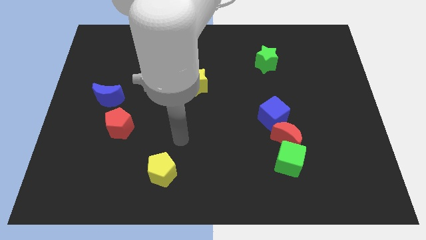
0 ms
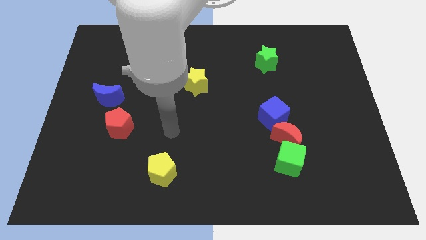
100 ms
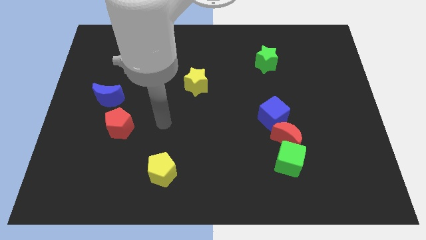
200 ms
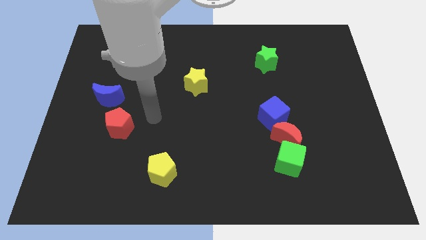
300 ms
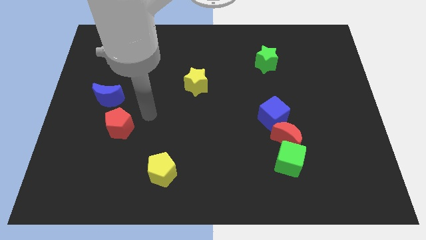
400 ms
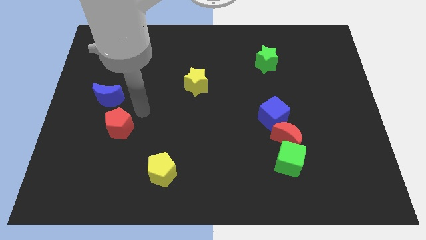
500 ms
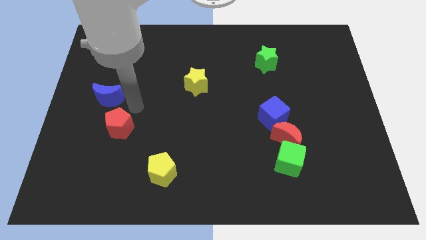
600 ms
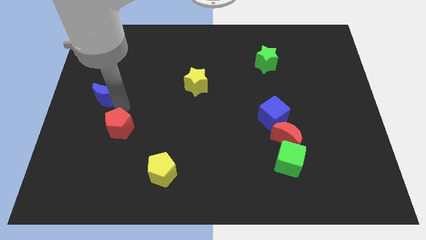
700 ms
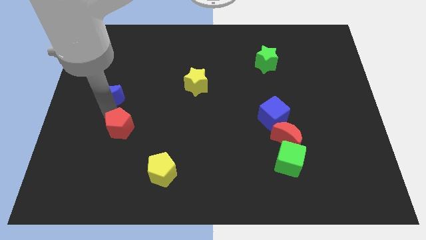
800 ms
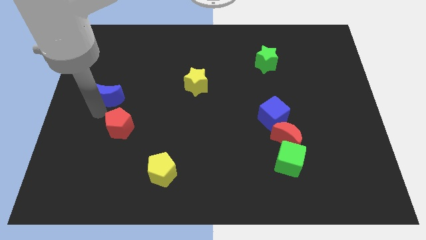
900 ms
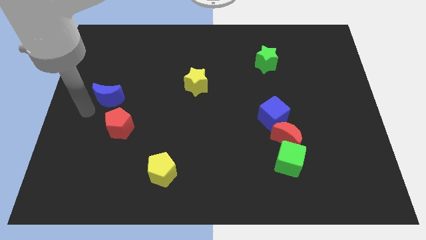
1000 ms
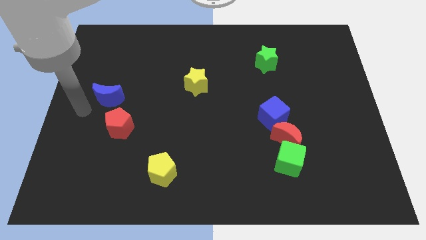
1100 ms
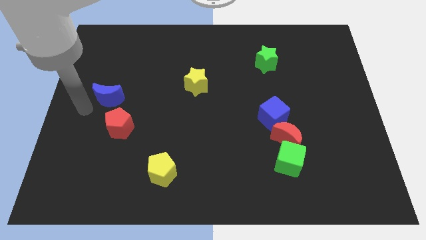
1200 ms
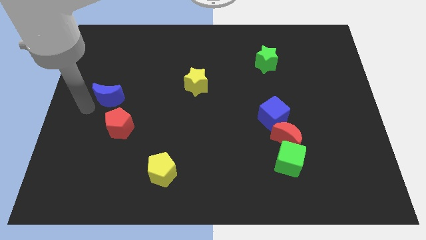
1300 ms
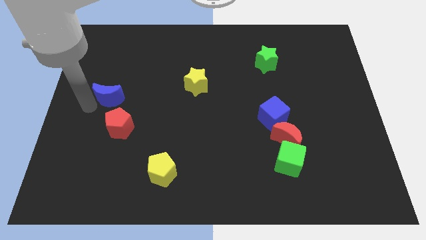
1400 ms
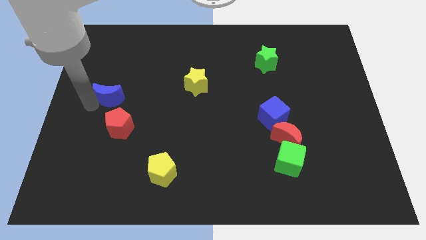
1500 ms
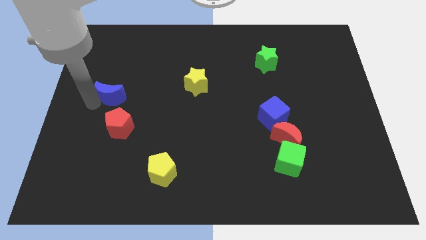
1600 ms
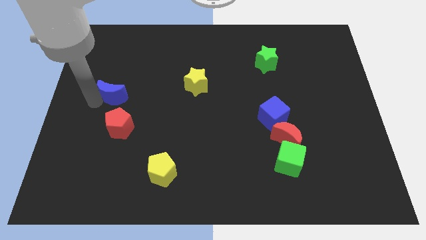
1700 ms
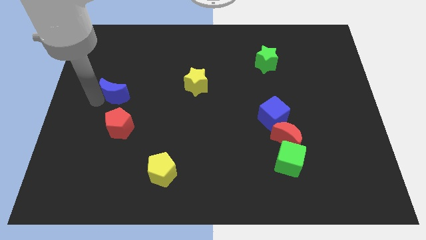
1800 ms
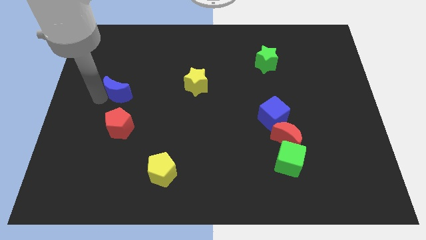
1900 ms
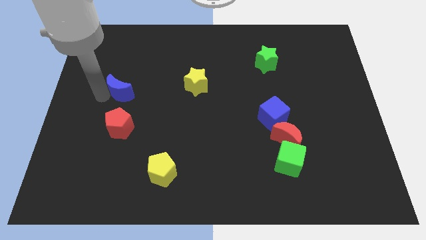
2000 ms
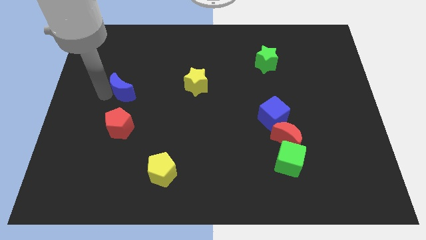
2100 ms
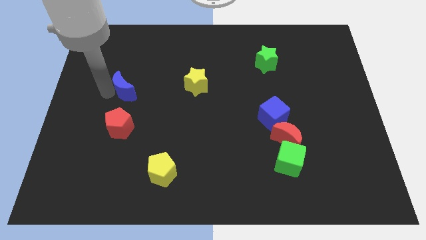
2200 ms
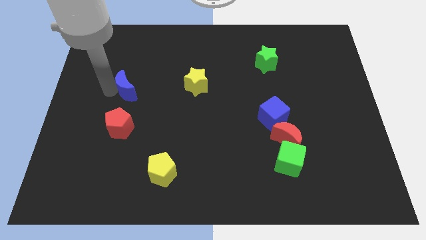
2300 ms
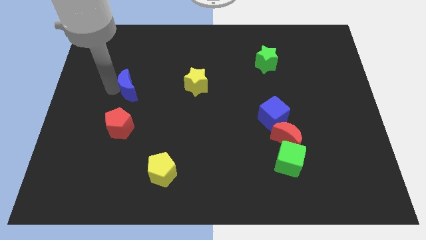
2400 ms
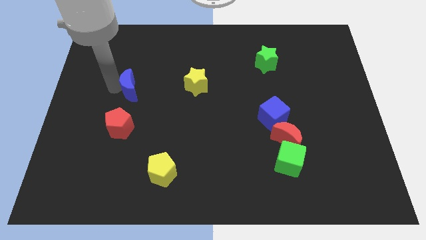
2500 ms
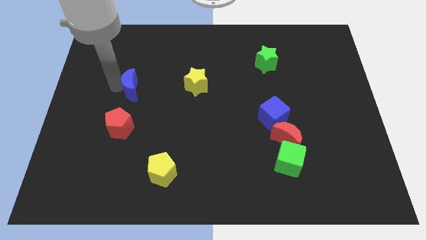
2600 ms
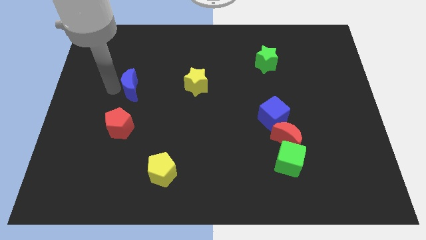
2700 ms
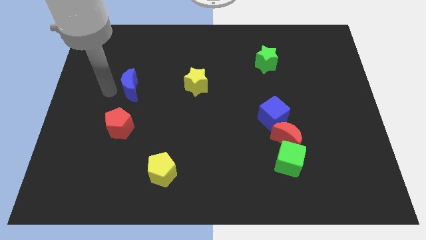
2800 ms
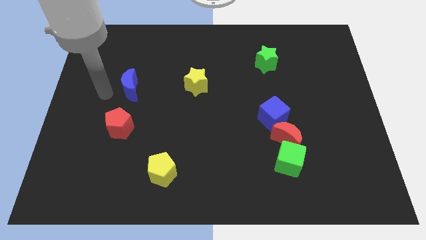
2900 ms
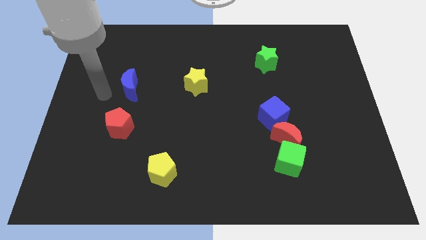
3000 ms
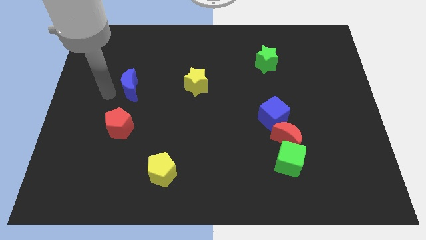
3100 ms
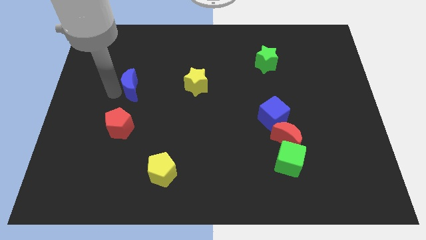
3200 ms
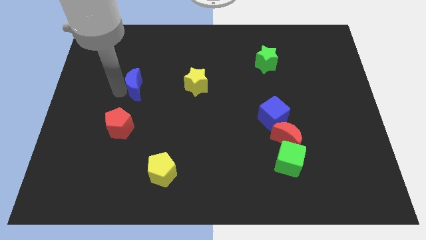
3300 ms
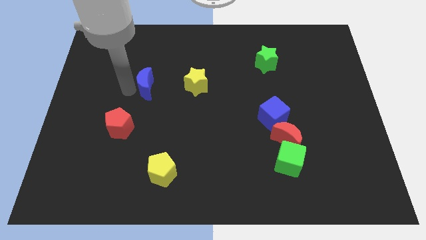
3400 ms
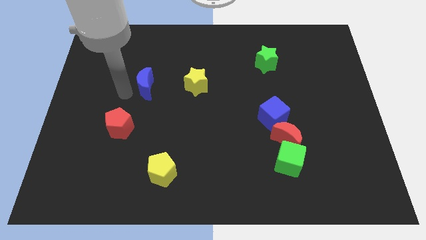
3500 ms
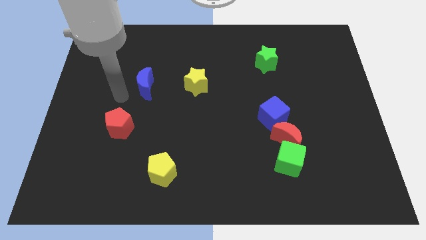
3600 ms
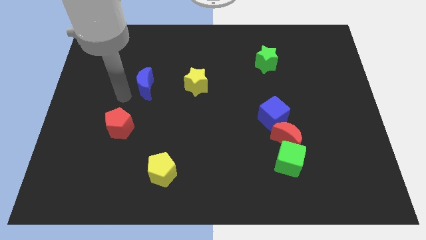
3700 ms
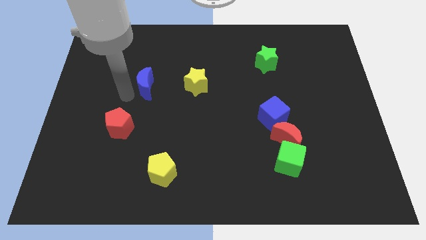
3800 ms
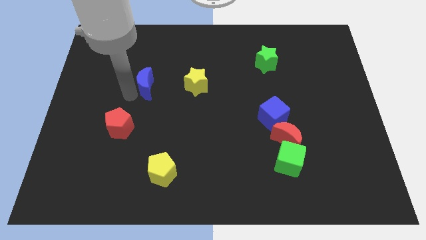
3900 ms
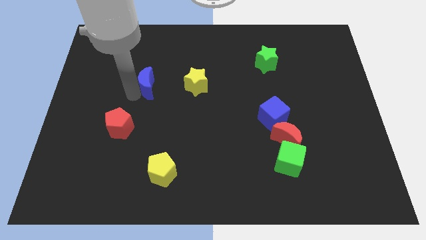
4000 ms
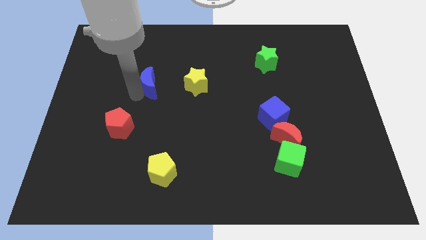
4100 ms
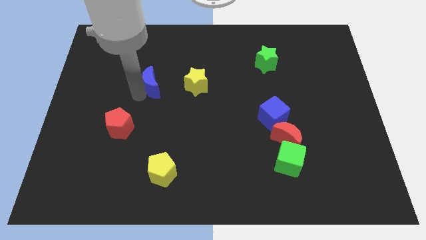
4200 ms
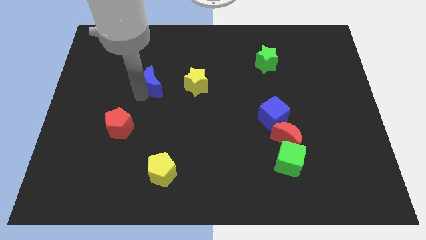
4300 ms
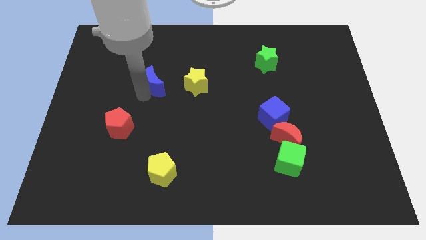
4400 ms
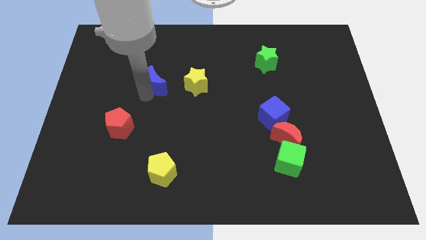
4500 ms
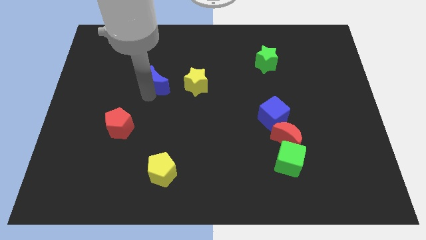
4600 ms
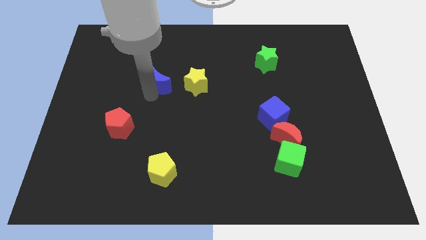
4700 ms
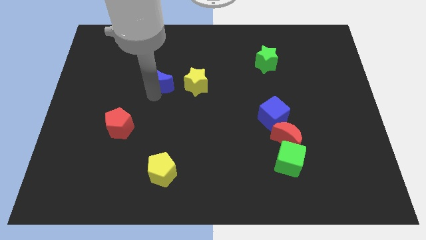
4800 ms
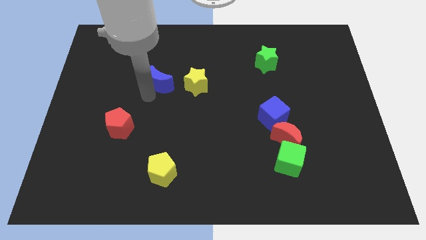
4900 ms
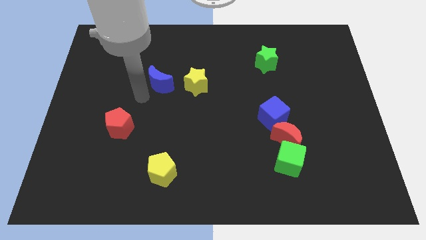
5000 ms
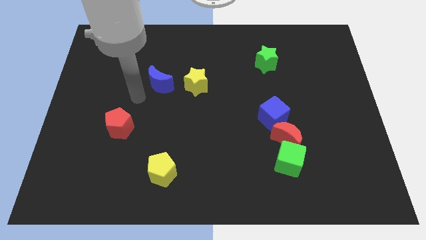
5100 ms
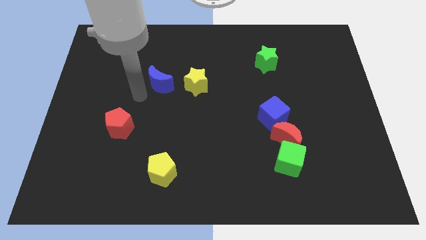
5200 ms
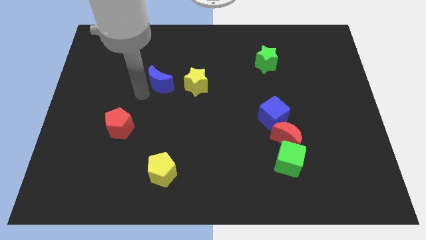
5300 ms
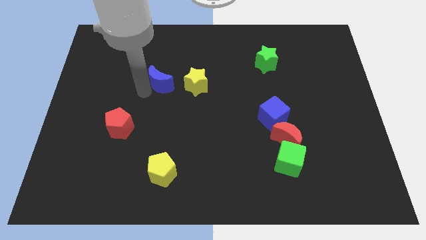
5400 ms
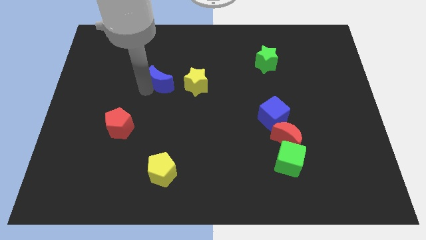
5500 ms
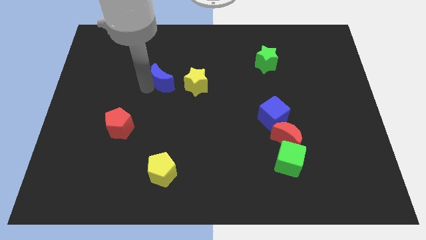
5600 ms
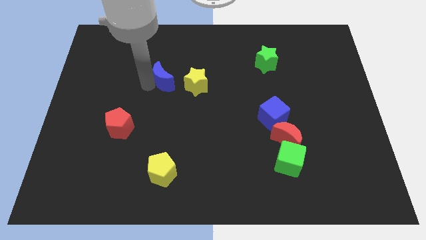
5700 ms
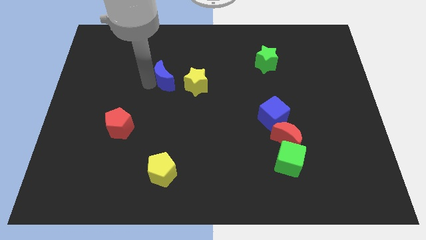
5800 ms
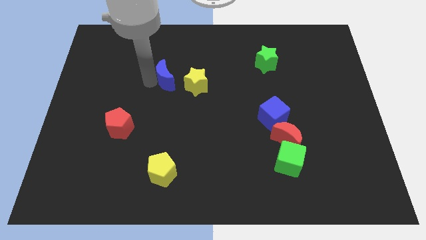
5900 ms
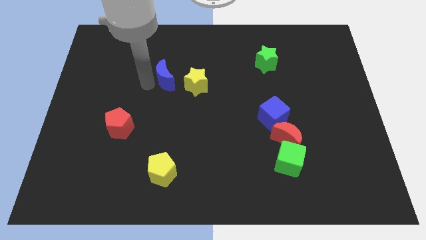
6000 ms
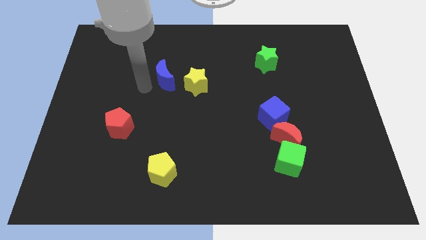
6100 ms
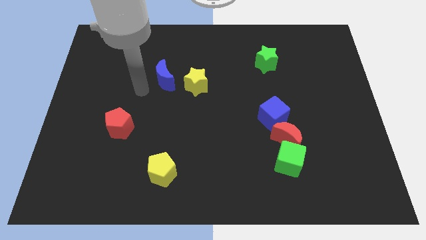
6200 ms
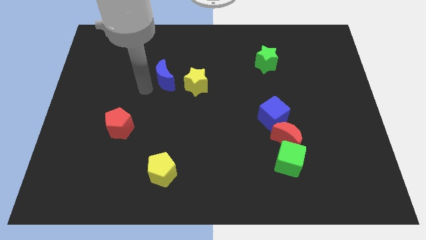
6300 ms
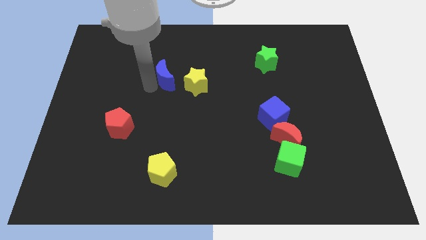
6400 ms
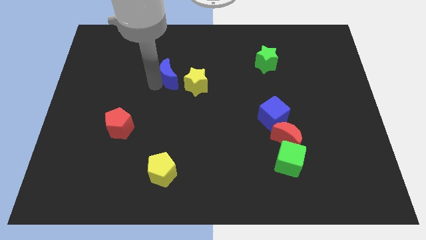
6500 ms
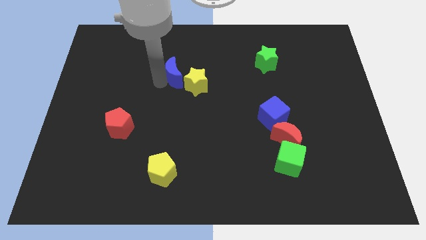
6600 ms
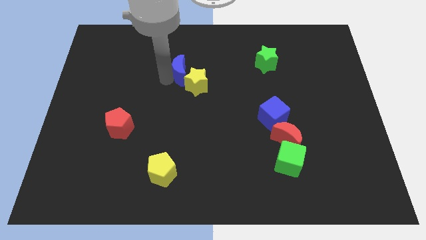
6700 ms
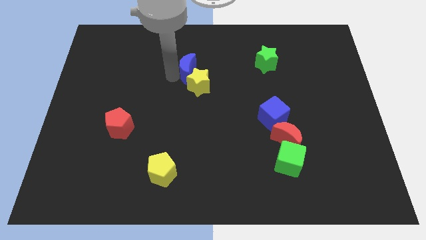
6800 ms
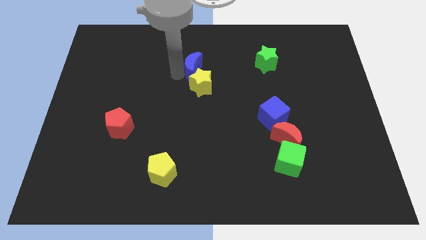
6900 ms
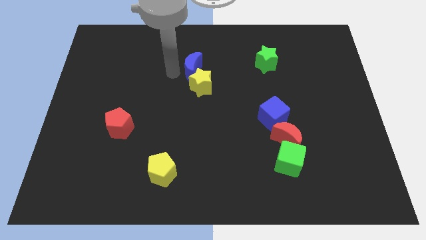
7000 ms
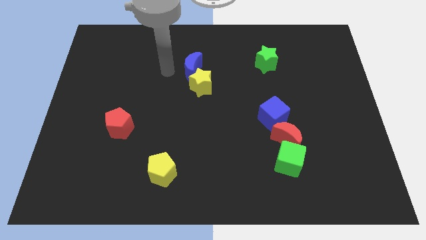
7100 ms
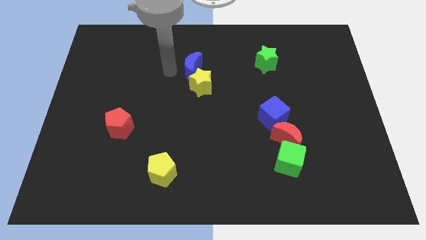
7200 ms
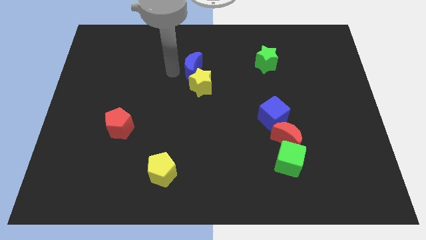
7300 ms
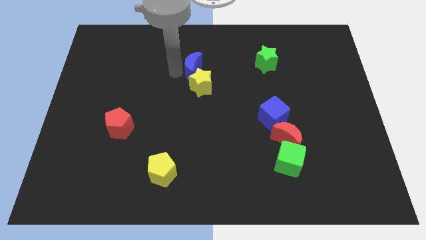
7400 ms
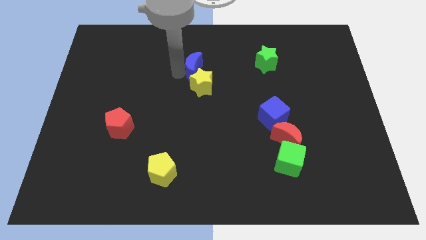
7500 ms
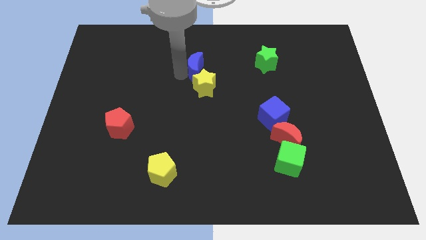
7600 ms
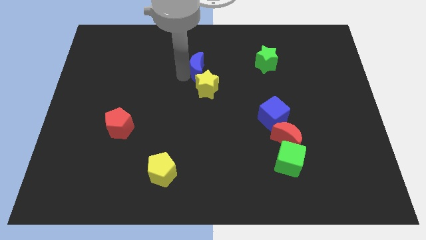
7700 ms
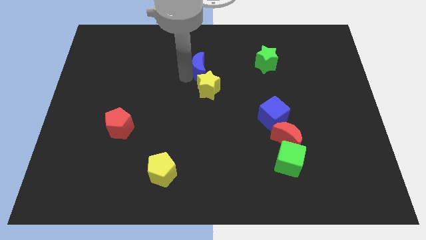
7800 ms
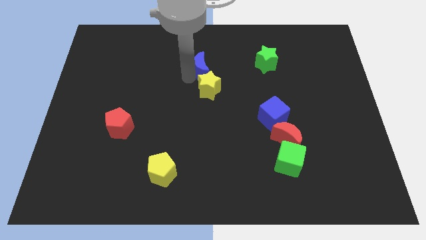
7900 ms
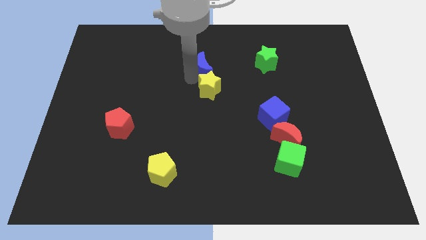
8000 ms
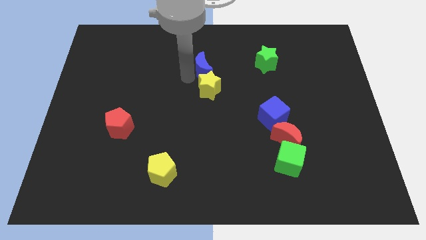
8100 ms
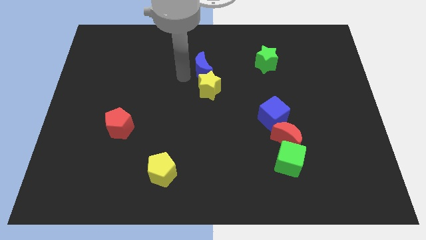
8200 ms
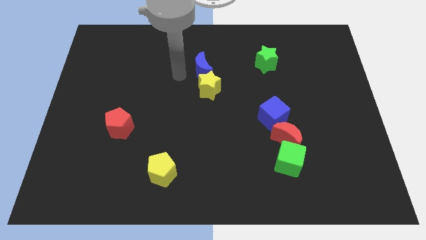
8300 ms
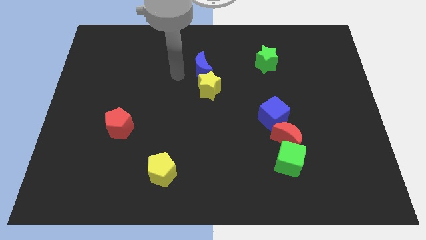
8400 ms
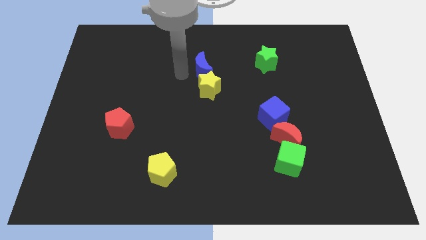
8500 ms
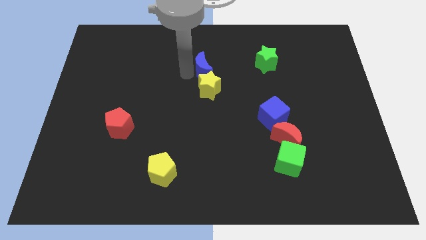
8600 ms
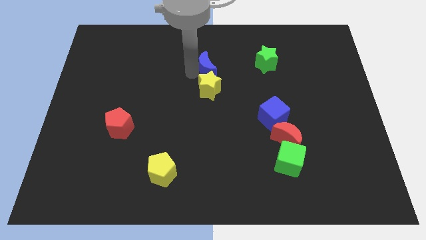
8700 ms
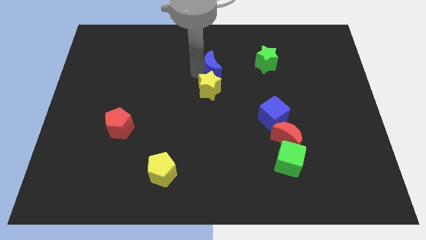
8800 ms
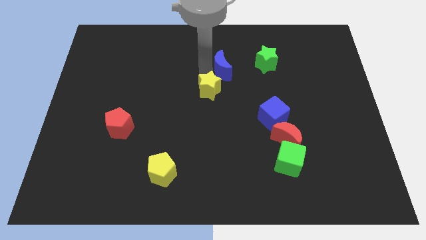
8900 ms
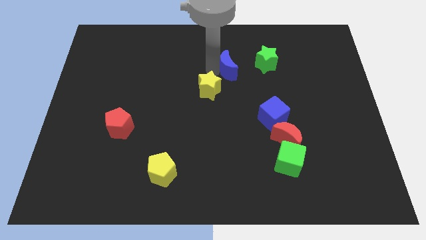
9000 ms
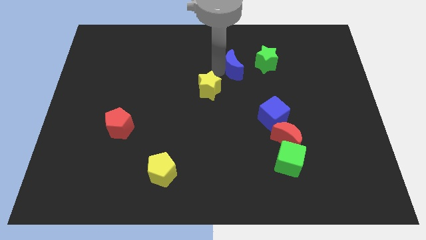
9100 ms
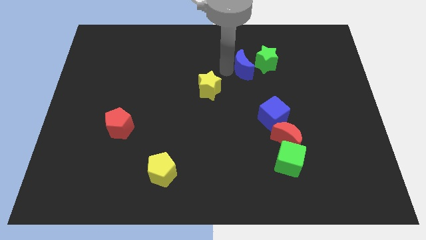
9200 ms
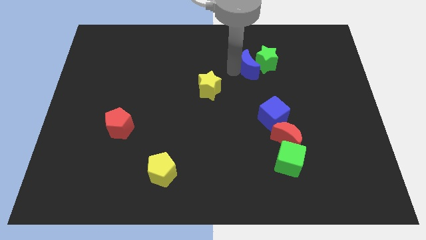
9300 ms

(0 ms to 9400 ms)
push the blue moon close to the green star
